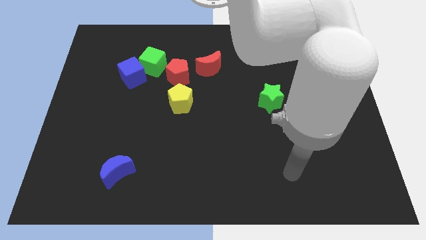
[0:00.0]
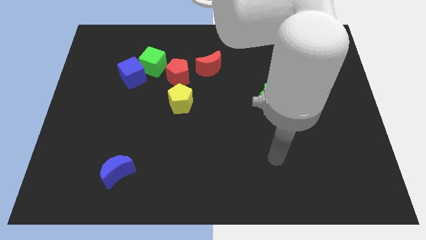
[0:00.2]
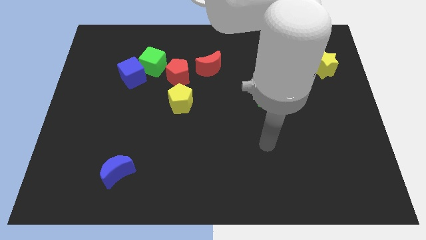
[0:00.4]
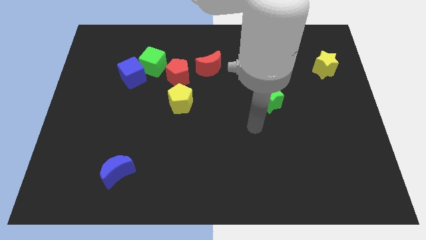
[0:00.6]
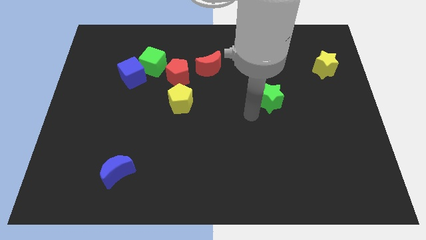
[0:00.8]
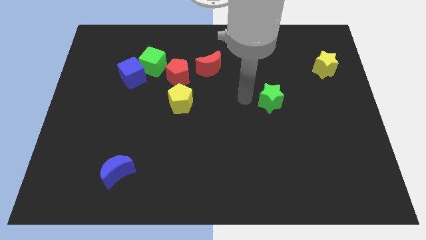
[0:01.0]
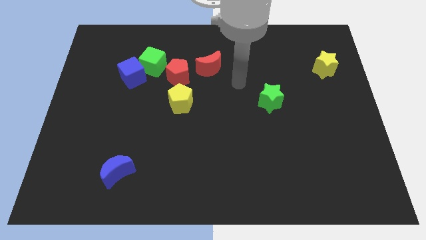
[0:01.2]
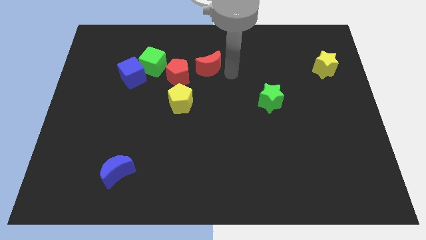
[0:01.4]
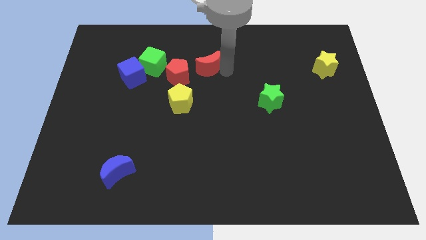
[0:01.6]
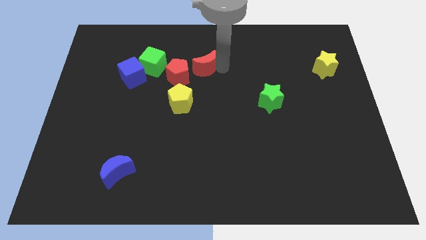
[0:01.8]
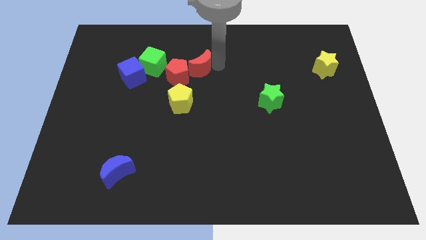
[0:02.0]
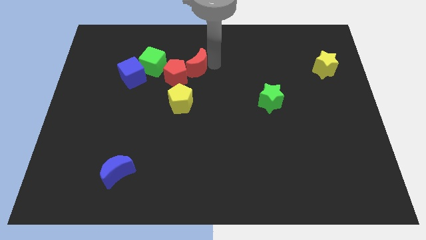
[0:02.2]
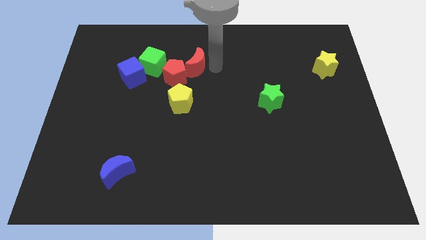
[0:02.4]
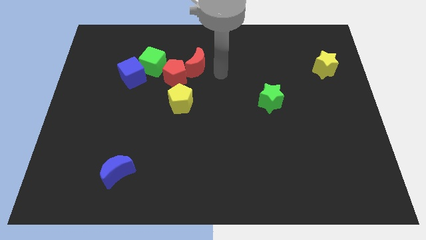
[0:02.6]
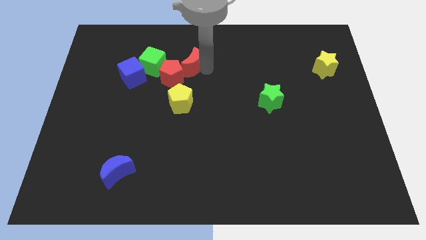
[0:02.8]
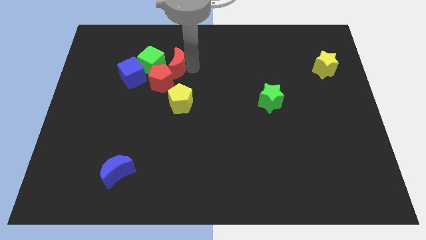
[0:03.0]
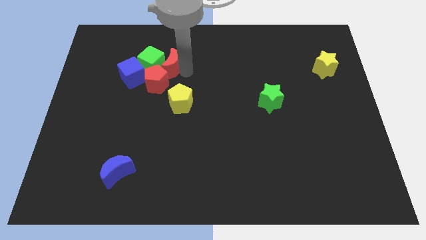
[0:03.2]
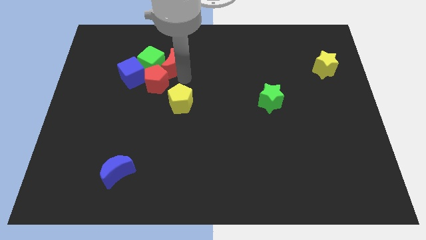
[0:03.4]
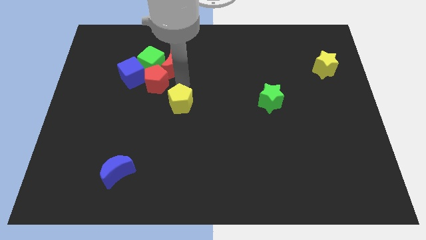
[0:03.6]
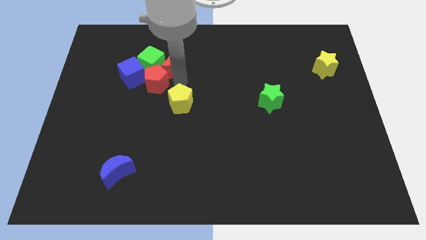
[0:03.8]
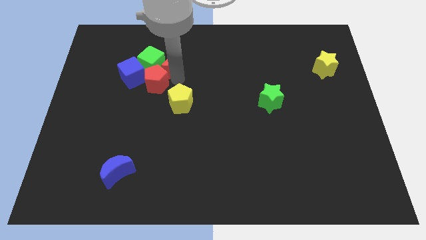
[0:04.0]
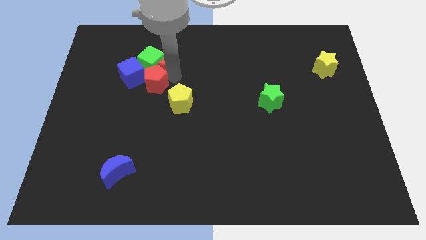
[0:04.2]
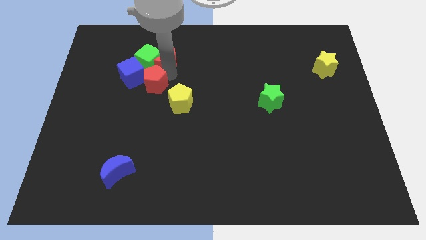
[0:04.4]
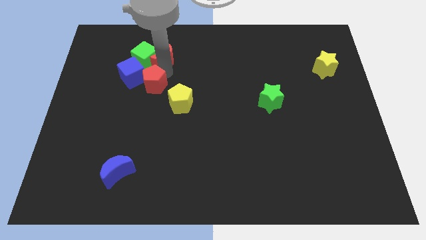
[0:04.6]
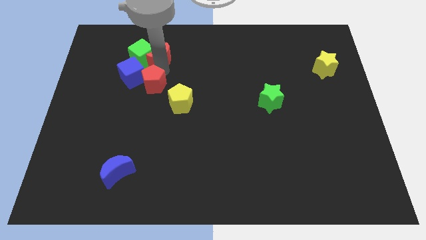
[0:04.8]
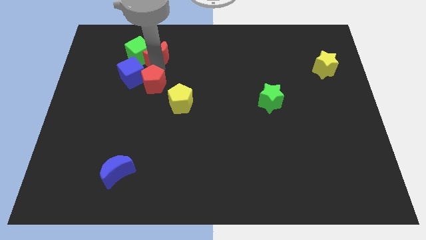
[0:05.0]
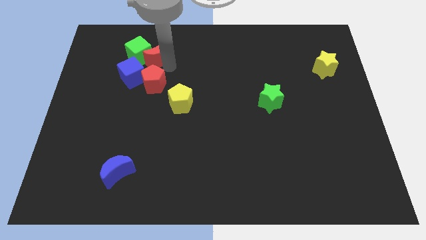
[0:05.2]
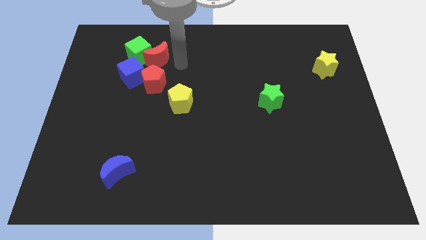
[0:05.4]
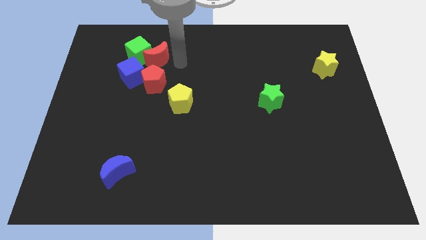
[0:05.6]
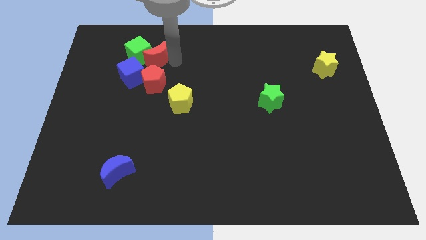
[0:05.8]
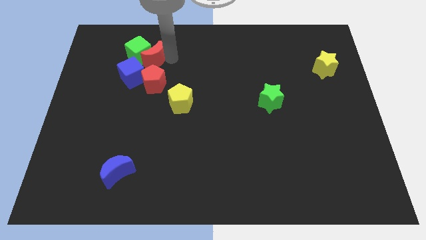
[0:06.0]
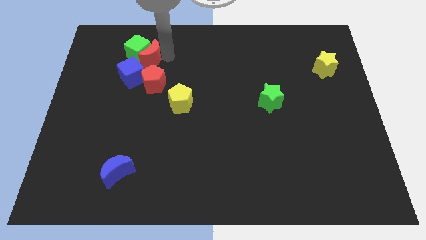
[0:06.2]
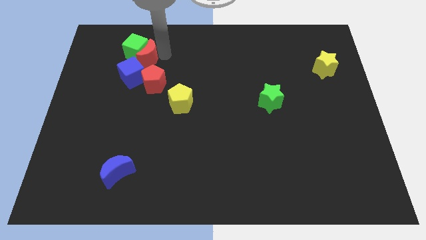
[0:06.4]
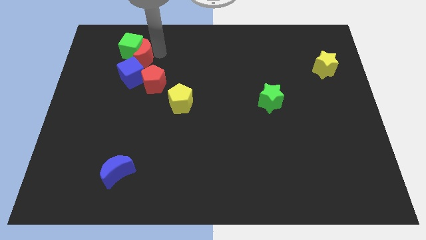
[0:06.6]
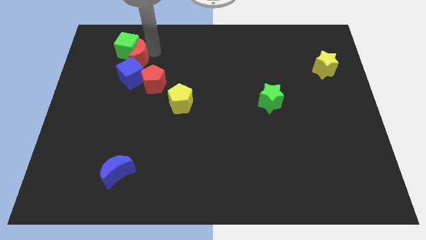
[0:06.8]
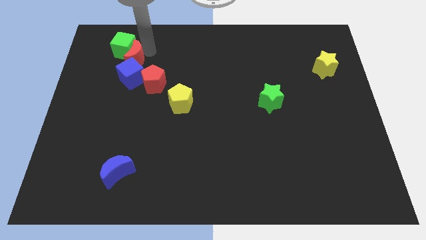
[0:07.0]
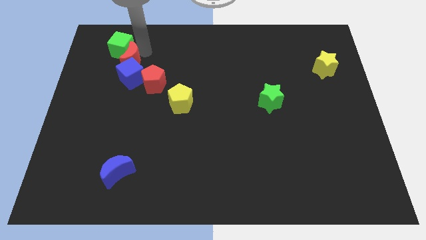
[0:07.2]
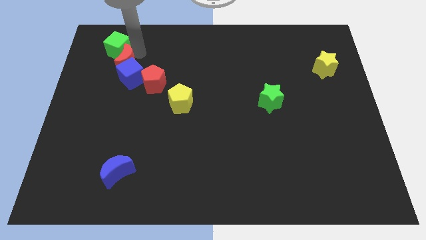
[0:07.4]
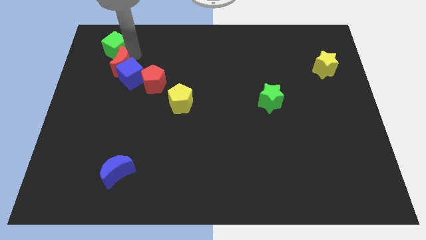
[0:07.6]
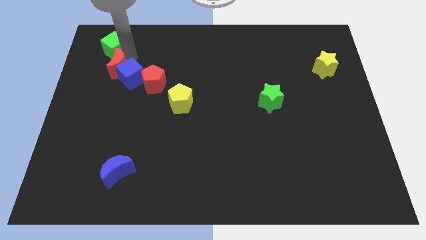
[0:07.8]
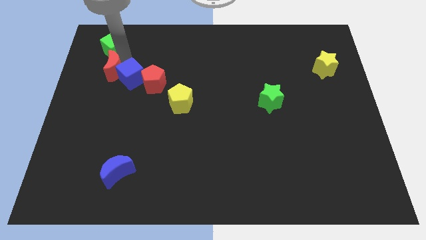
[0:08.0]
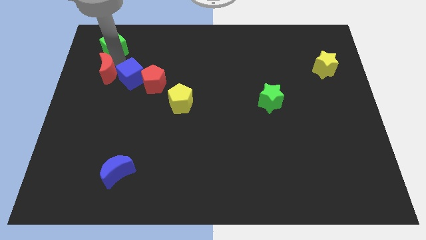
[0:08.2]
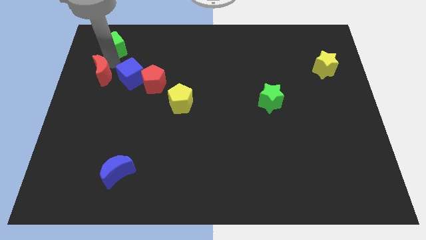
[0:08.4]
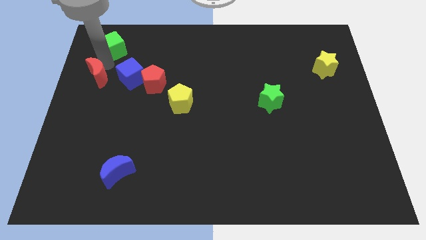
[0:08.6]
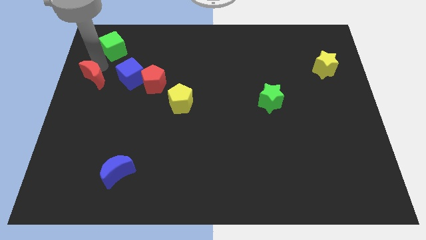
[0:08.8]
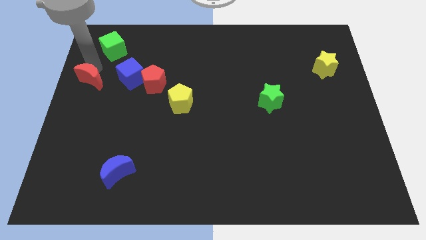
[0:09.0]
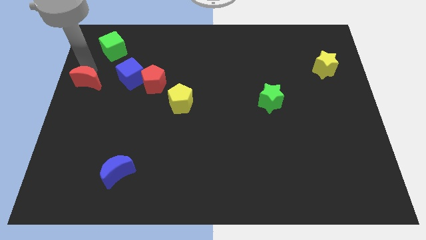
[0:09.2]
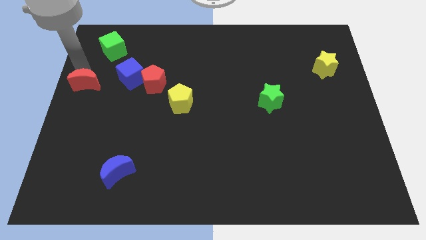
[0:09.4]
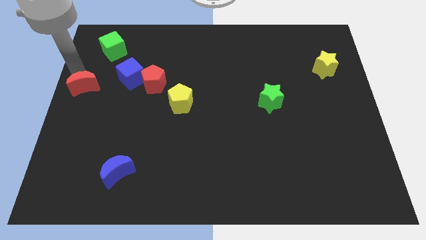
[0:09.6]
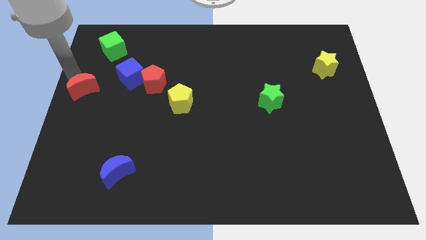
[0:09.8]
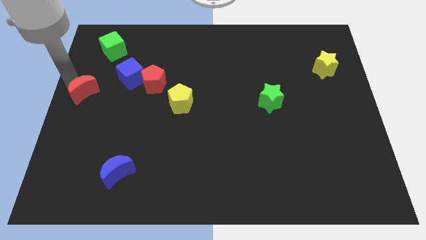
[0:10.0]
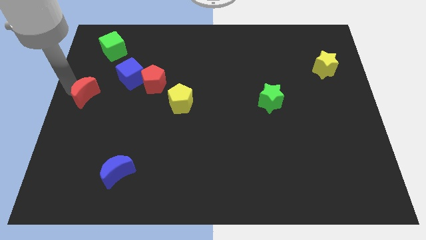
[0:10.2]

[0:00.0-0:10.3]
put the red moon to the bottom left side of the blue cube

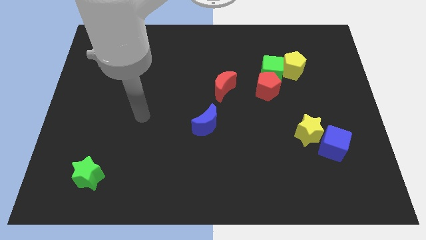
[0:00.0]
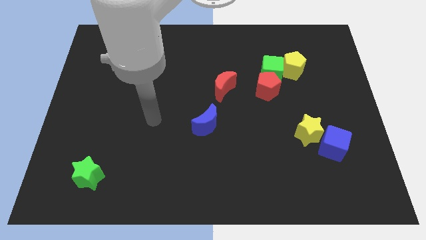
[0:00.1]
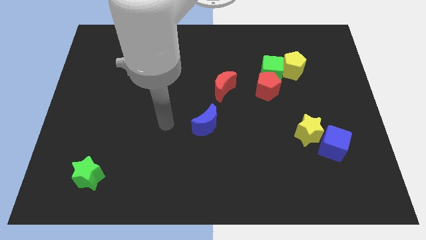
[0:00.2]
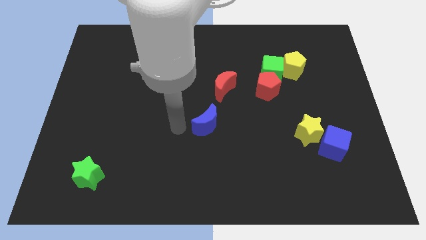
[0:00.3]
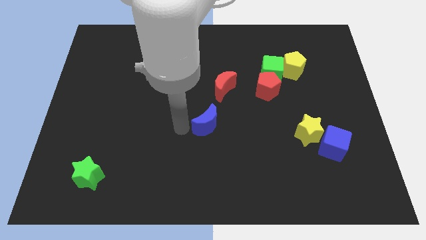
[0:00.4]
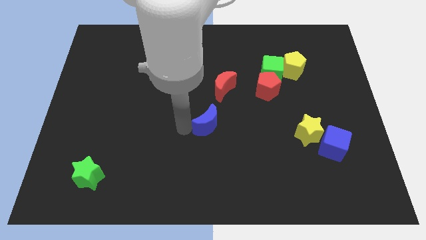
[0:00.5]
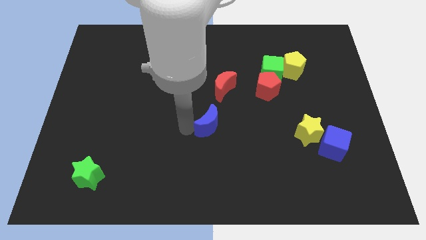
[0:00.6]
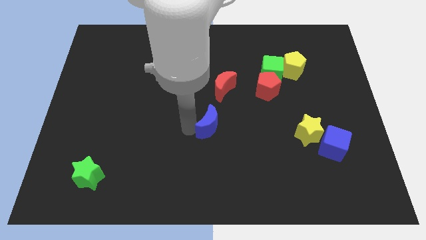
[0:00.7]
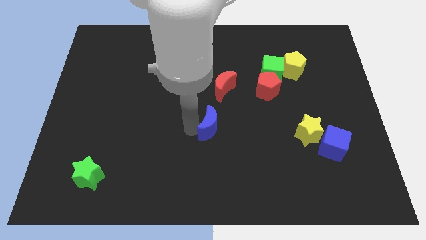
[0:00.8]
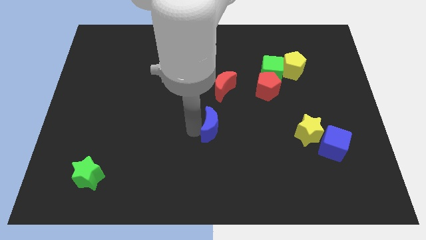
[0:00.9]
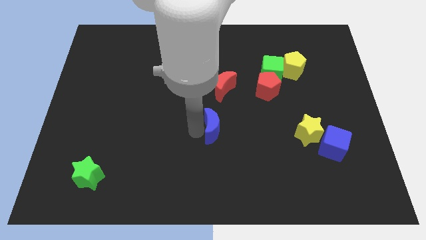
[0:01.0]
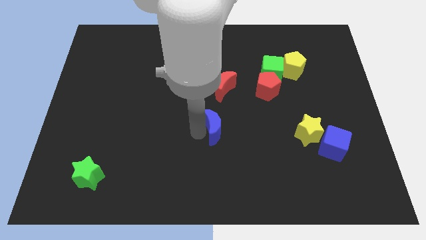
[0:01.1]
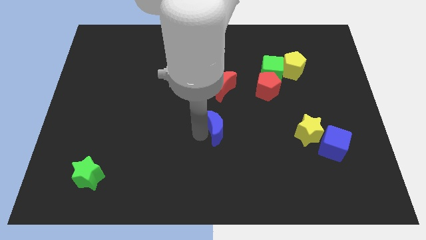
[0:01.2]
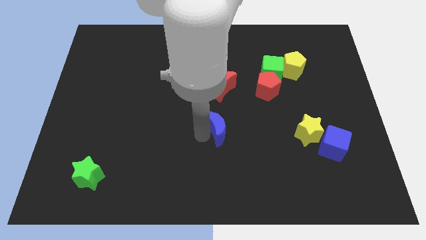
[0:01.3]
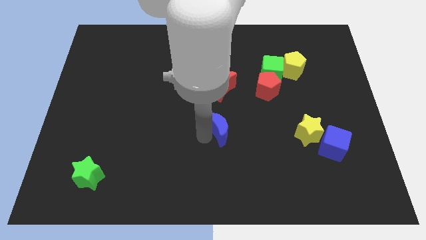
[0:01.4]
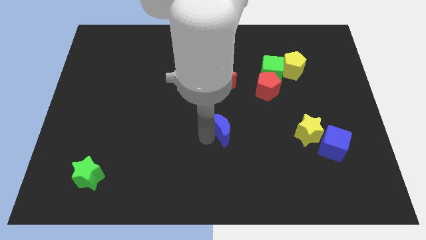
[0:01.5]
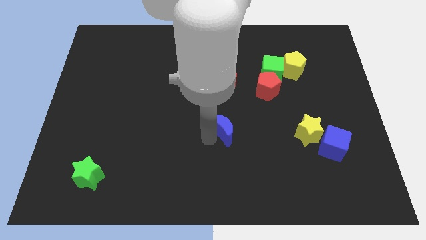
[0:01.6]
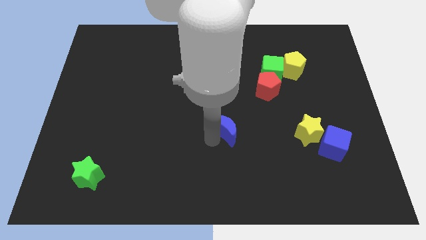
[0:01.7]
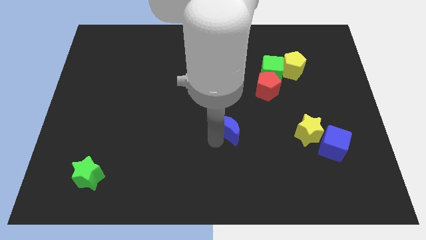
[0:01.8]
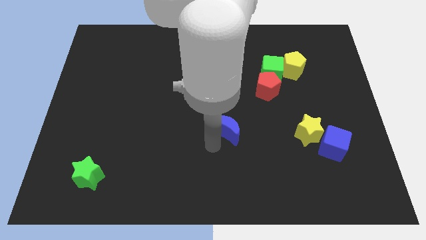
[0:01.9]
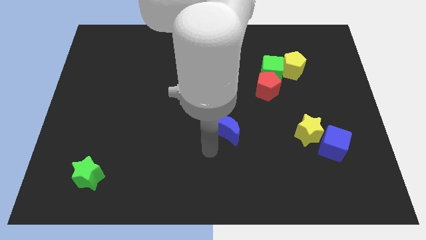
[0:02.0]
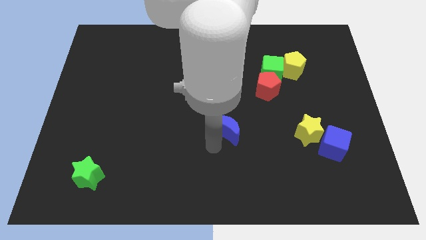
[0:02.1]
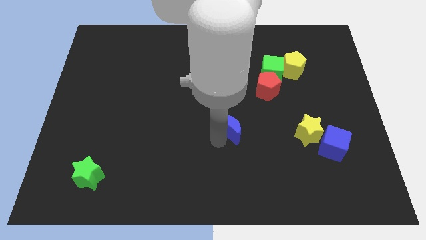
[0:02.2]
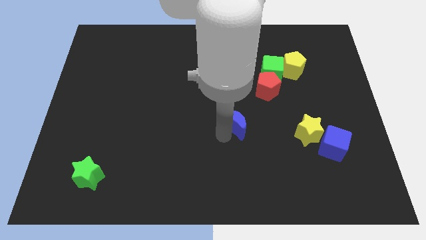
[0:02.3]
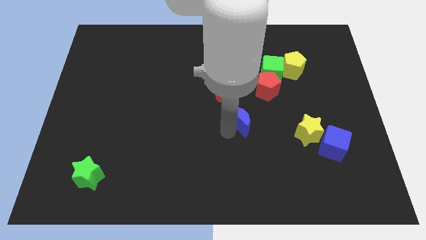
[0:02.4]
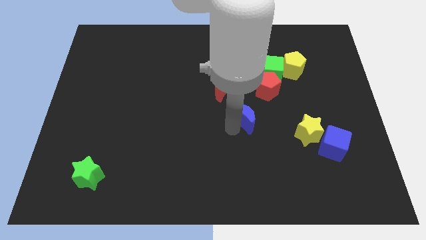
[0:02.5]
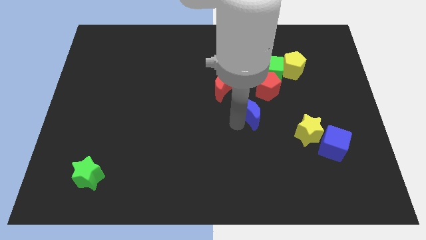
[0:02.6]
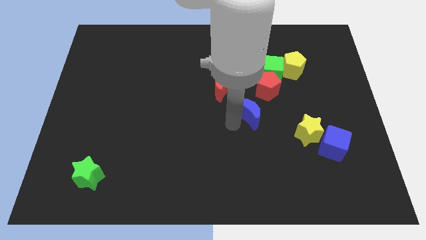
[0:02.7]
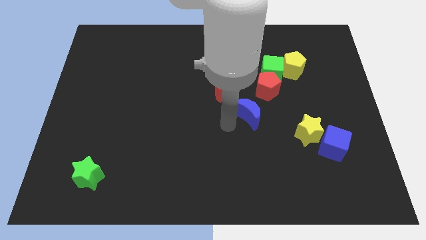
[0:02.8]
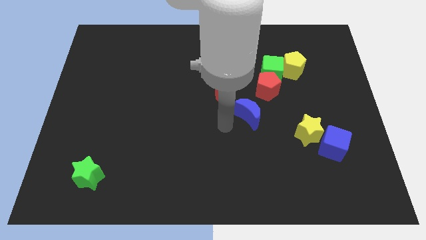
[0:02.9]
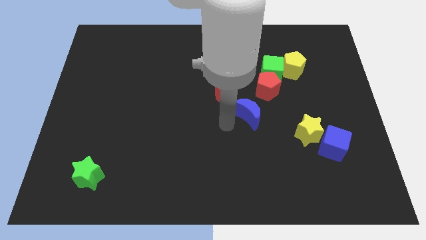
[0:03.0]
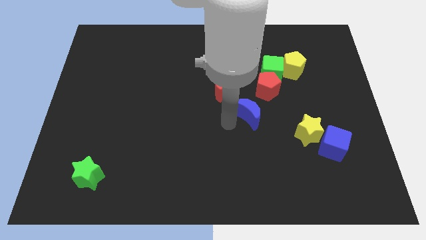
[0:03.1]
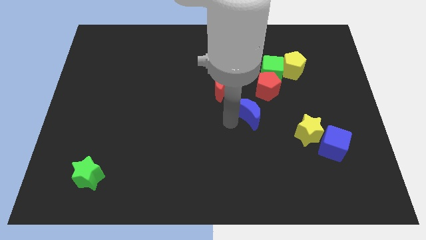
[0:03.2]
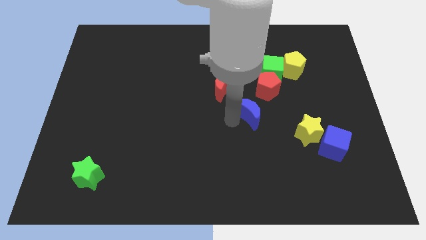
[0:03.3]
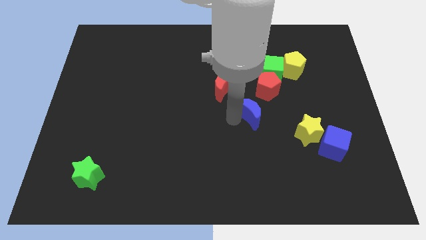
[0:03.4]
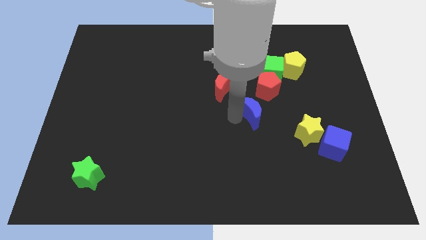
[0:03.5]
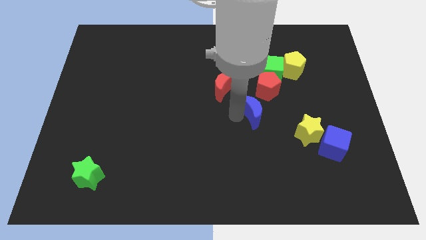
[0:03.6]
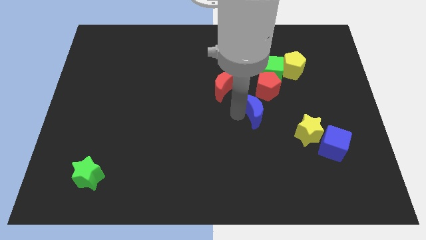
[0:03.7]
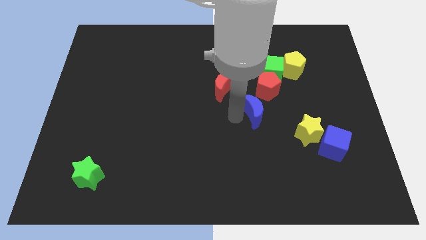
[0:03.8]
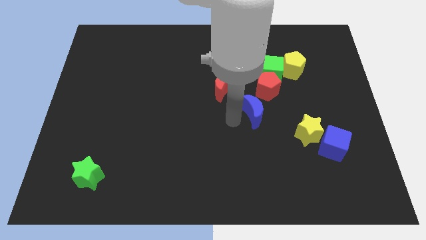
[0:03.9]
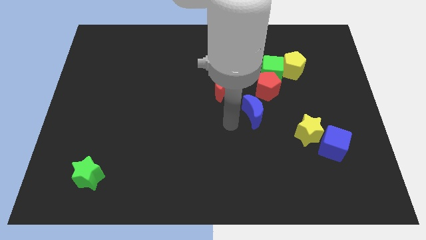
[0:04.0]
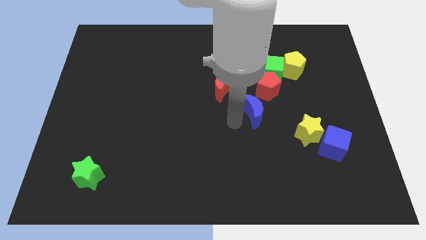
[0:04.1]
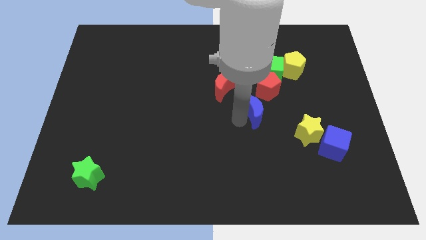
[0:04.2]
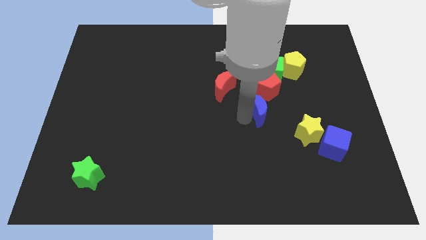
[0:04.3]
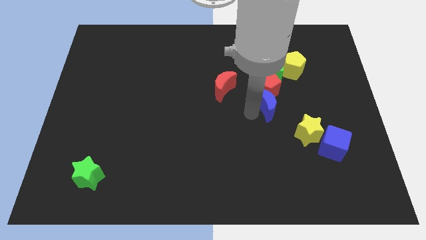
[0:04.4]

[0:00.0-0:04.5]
slide the blue moon to the bottom right side of the red pentagon
